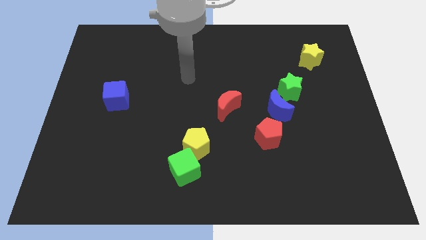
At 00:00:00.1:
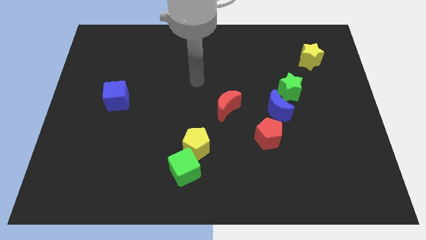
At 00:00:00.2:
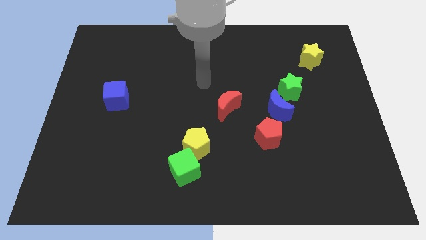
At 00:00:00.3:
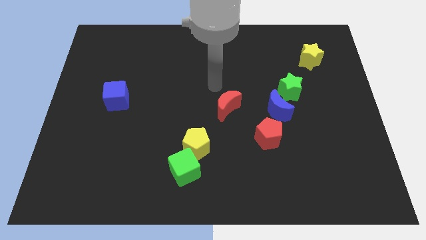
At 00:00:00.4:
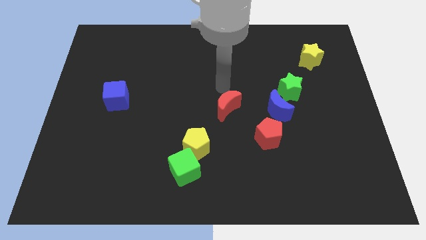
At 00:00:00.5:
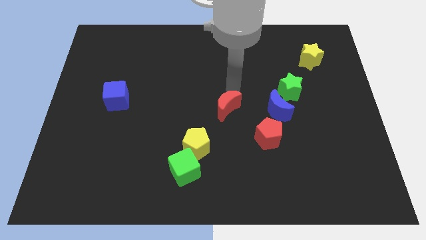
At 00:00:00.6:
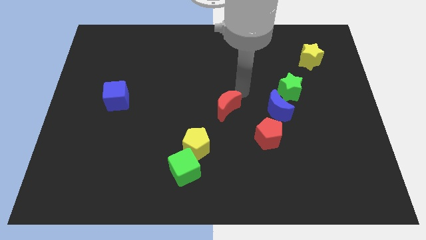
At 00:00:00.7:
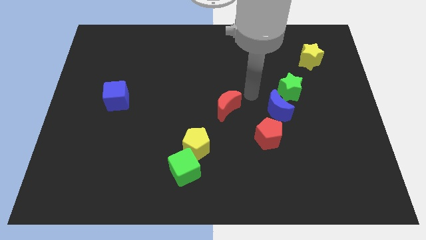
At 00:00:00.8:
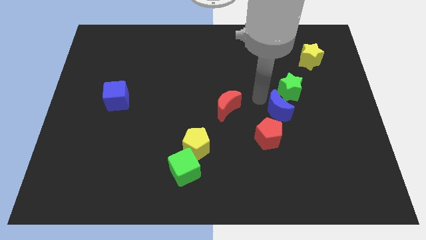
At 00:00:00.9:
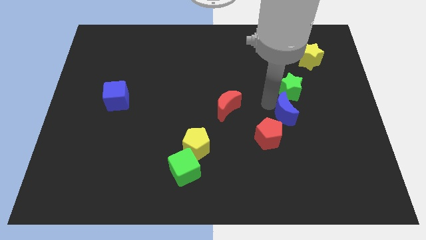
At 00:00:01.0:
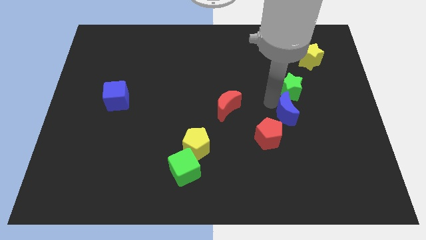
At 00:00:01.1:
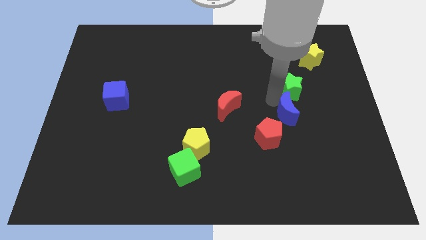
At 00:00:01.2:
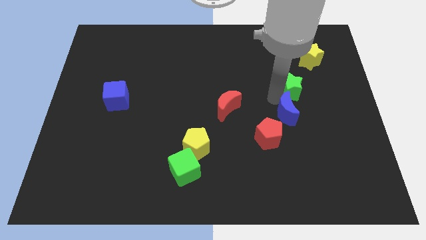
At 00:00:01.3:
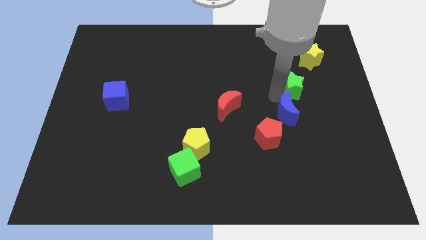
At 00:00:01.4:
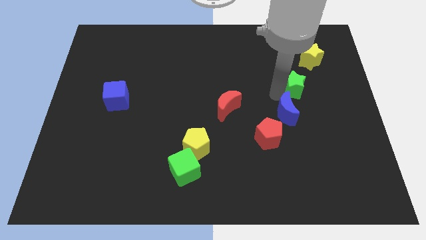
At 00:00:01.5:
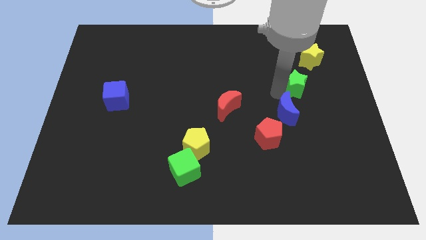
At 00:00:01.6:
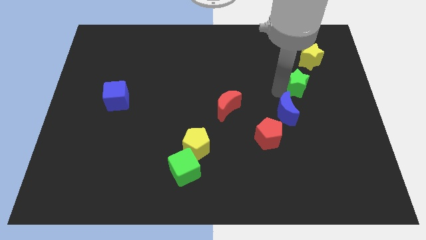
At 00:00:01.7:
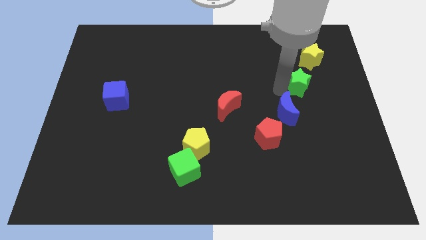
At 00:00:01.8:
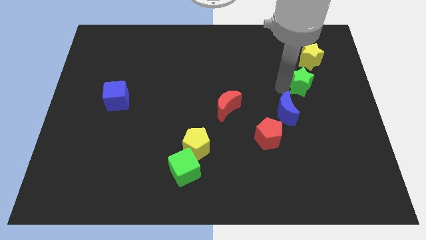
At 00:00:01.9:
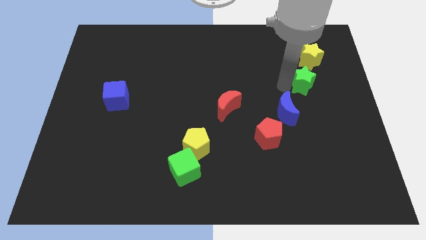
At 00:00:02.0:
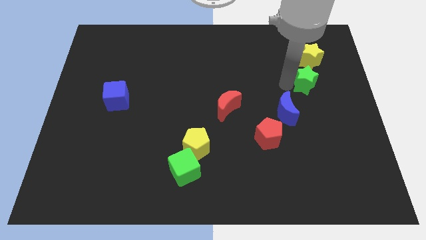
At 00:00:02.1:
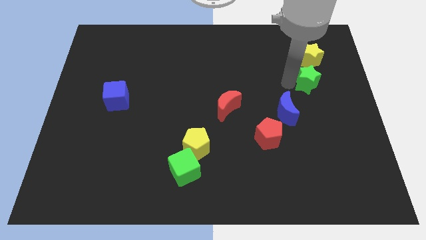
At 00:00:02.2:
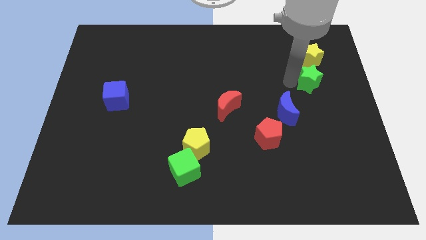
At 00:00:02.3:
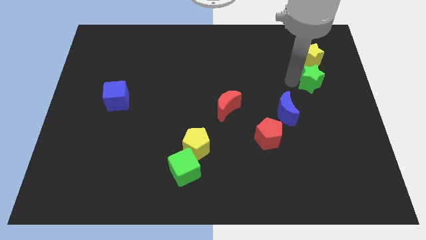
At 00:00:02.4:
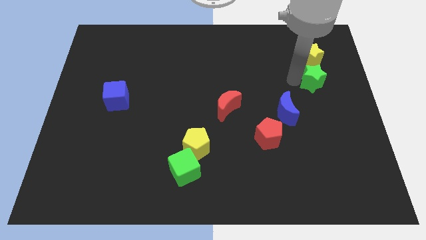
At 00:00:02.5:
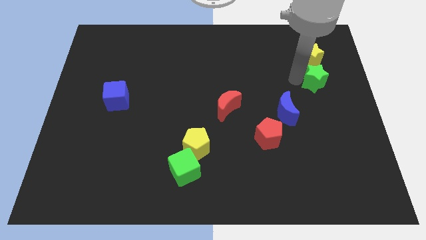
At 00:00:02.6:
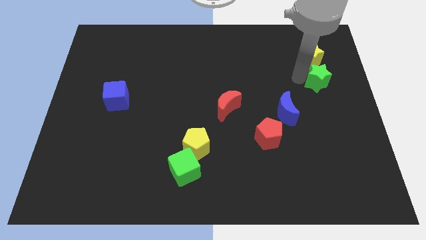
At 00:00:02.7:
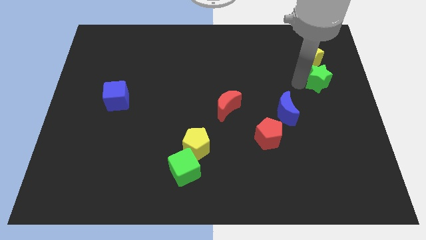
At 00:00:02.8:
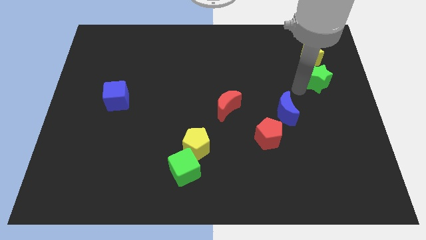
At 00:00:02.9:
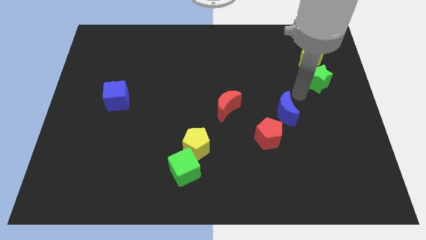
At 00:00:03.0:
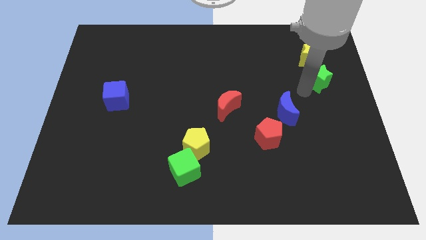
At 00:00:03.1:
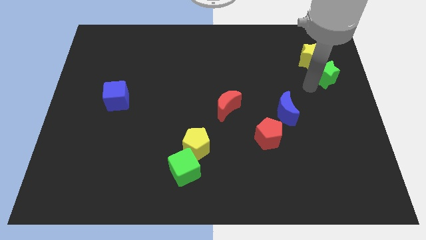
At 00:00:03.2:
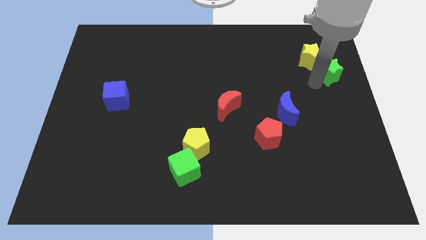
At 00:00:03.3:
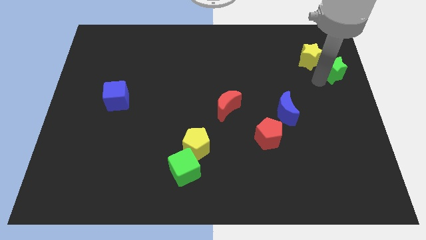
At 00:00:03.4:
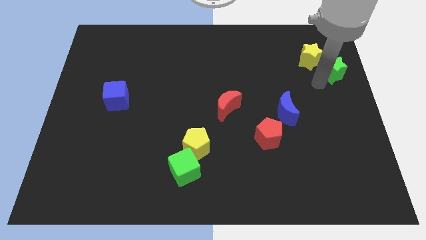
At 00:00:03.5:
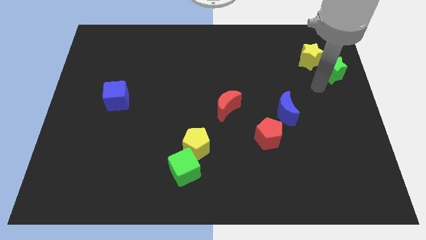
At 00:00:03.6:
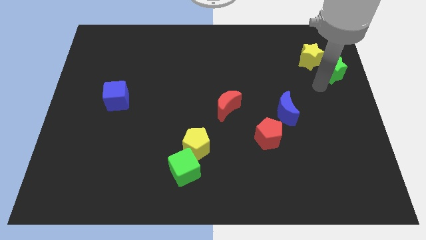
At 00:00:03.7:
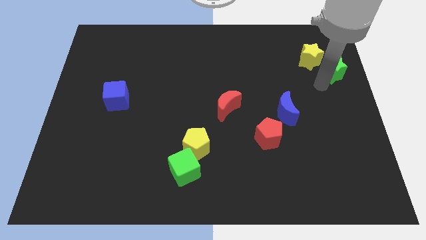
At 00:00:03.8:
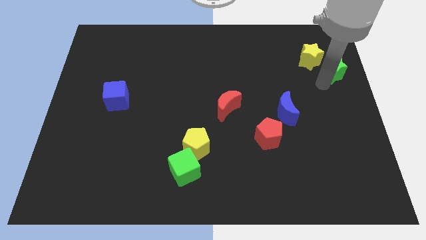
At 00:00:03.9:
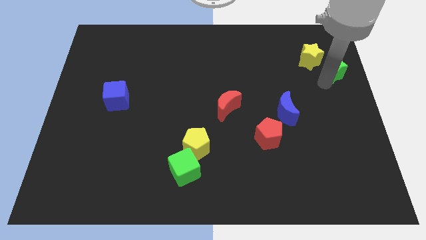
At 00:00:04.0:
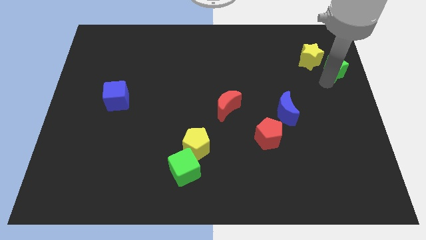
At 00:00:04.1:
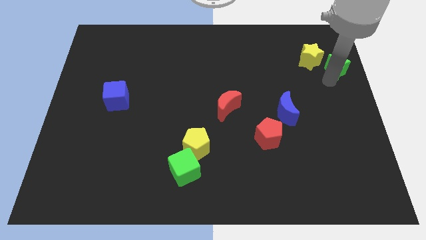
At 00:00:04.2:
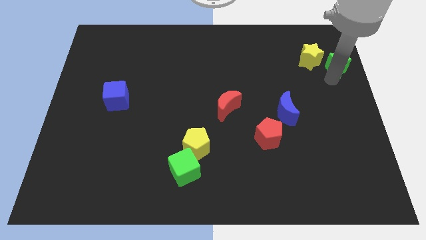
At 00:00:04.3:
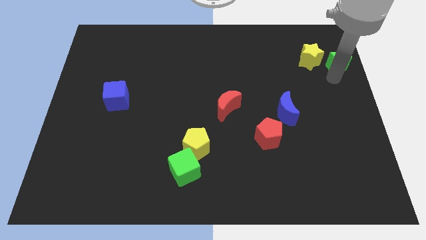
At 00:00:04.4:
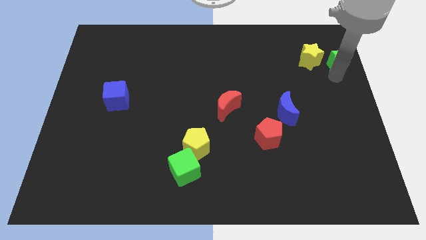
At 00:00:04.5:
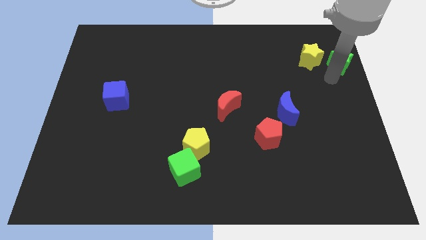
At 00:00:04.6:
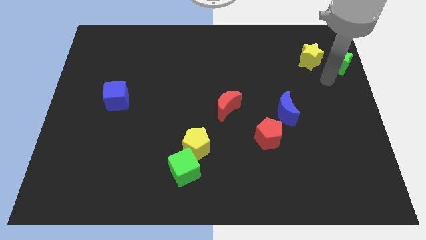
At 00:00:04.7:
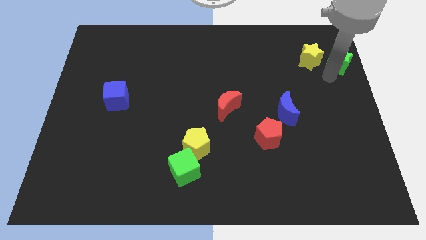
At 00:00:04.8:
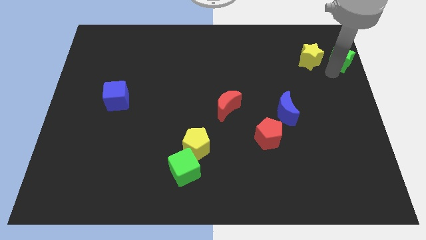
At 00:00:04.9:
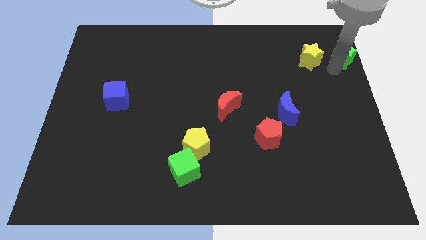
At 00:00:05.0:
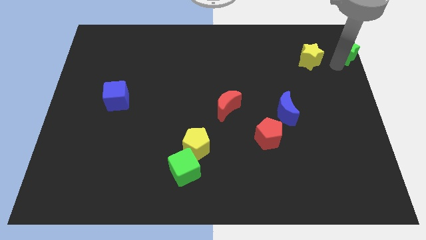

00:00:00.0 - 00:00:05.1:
push the green star to the top right

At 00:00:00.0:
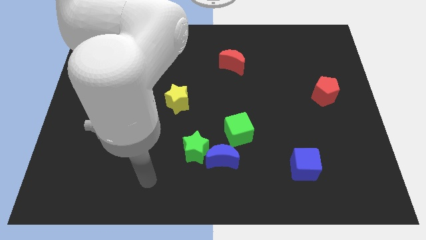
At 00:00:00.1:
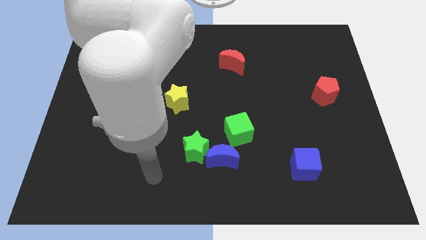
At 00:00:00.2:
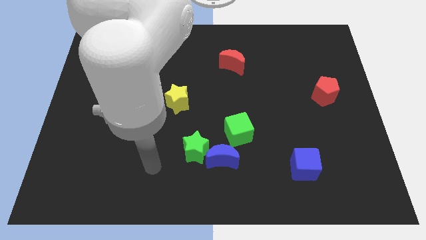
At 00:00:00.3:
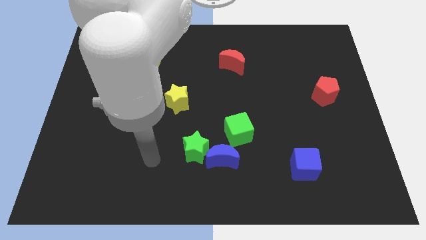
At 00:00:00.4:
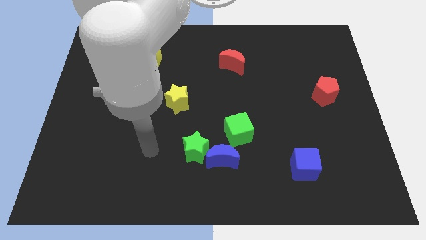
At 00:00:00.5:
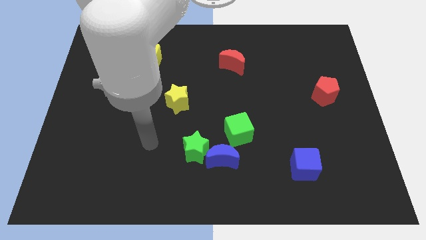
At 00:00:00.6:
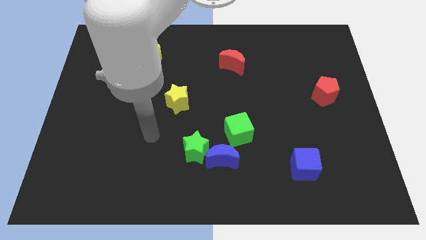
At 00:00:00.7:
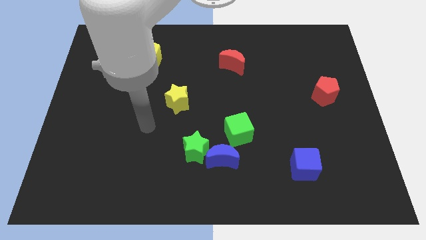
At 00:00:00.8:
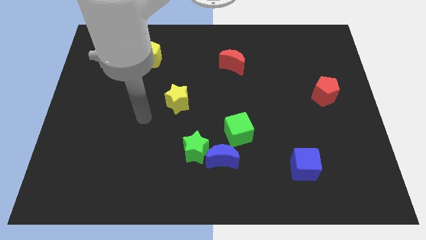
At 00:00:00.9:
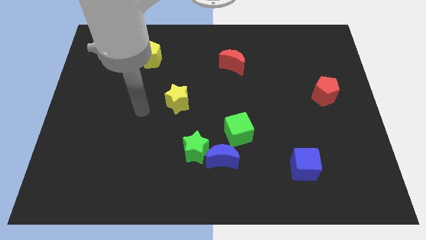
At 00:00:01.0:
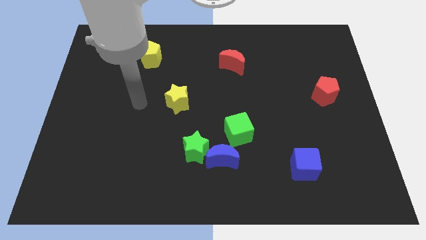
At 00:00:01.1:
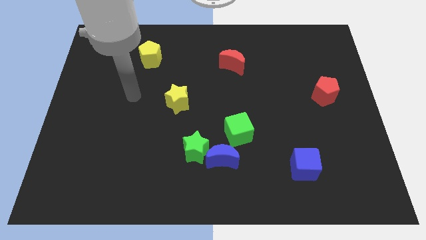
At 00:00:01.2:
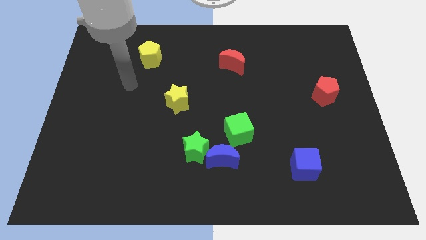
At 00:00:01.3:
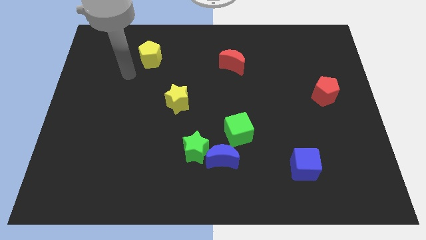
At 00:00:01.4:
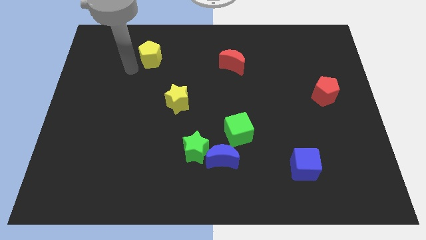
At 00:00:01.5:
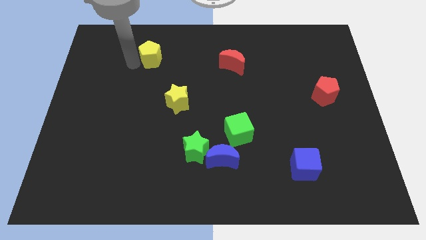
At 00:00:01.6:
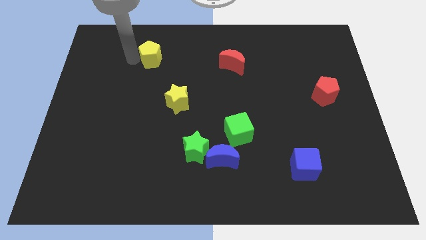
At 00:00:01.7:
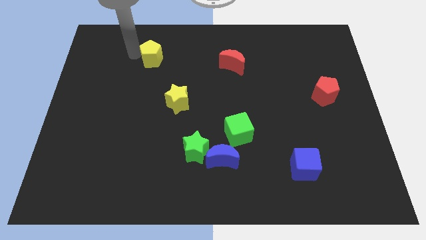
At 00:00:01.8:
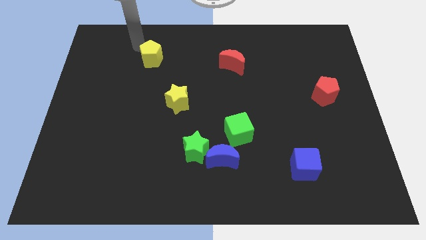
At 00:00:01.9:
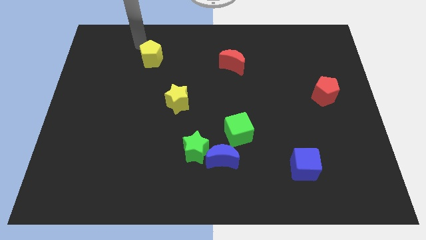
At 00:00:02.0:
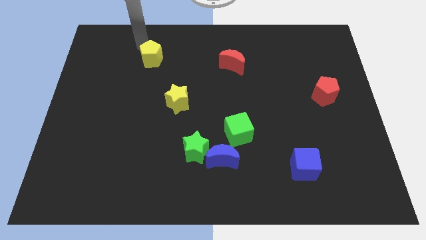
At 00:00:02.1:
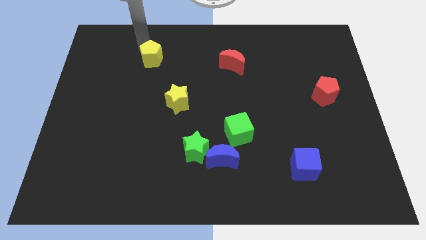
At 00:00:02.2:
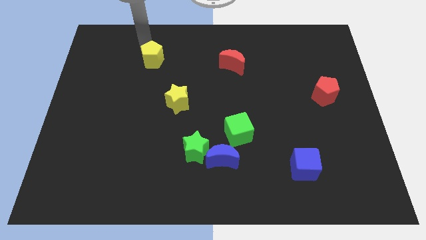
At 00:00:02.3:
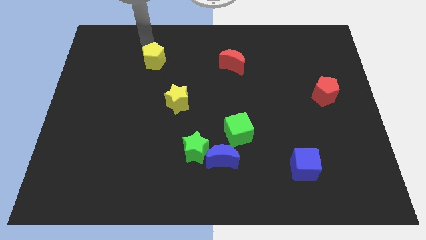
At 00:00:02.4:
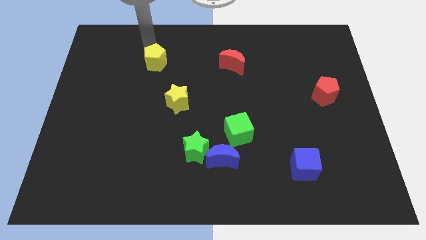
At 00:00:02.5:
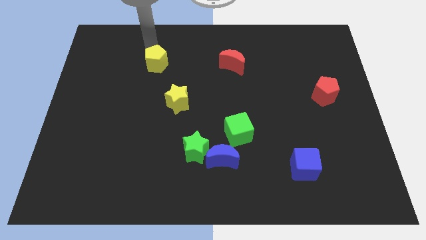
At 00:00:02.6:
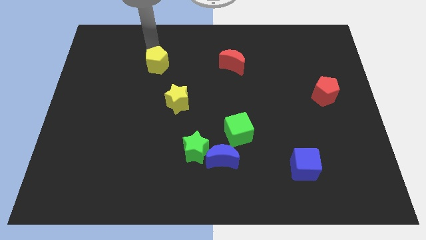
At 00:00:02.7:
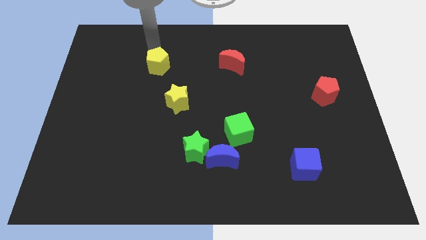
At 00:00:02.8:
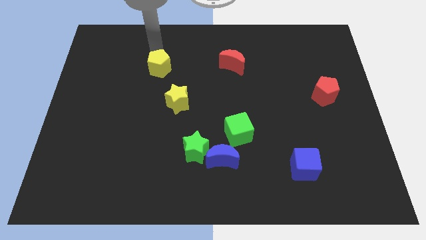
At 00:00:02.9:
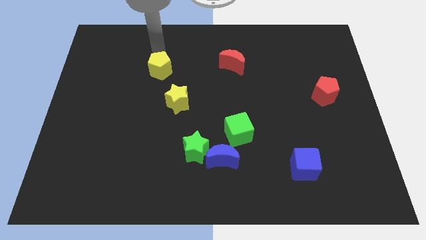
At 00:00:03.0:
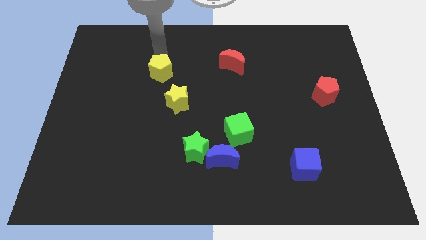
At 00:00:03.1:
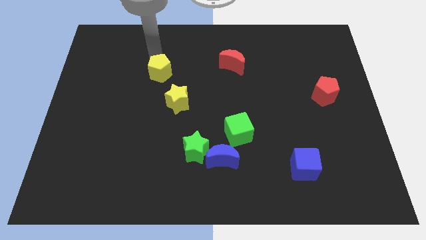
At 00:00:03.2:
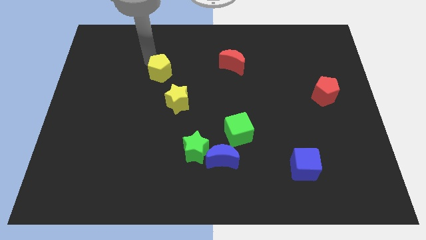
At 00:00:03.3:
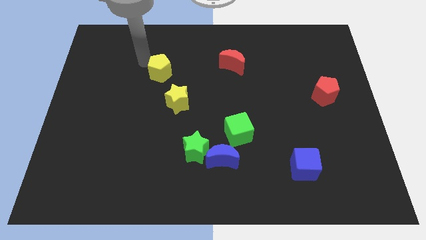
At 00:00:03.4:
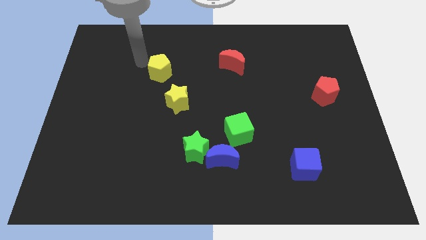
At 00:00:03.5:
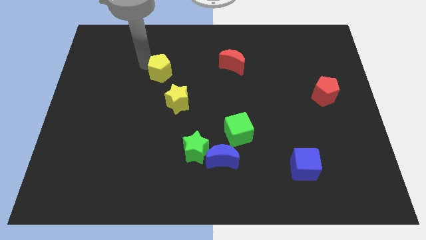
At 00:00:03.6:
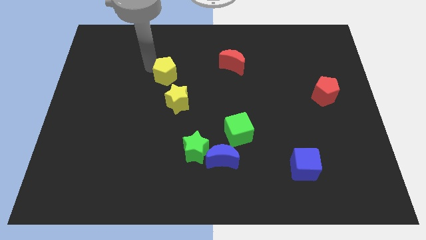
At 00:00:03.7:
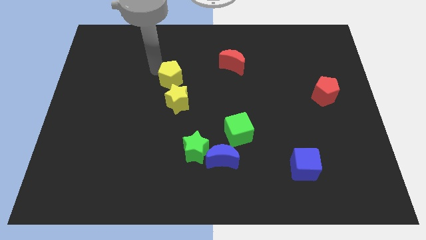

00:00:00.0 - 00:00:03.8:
move the yellow pentagon to the middle of the board
